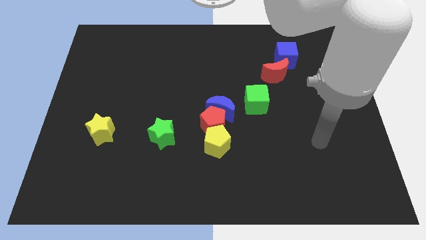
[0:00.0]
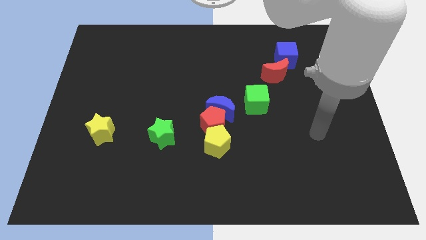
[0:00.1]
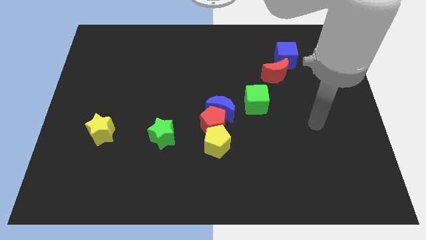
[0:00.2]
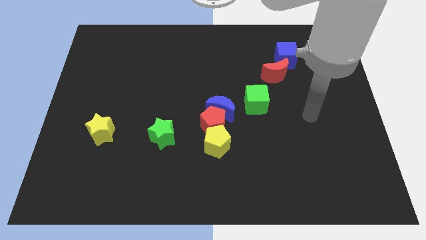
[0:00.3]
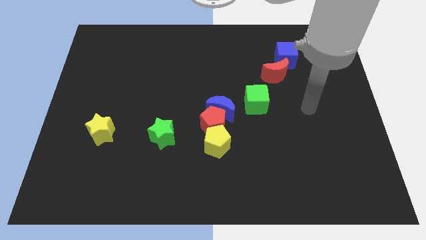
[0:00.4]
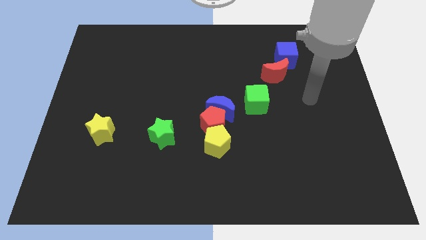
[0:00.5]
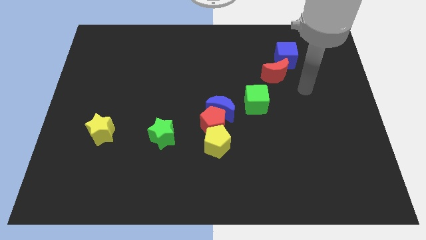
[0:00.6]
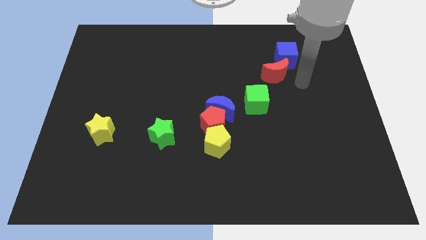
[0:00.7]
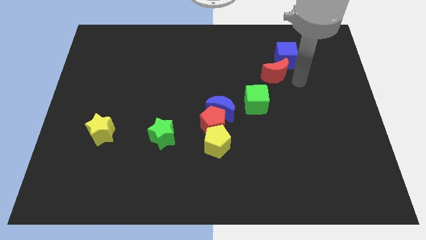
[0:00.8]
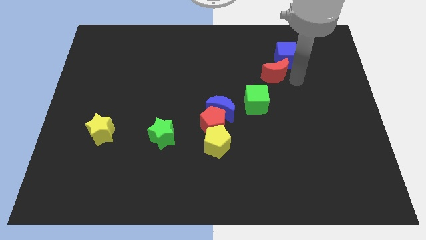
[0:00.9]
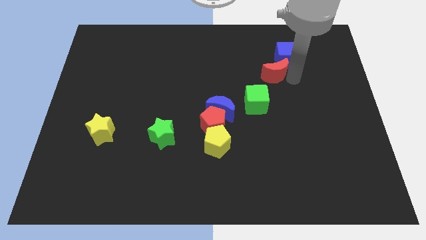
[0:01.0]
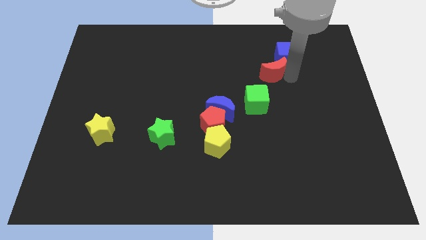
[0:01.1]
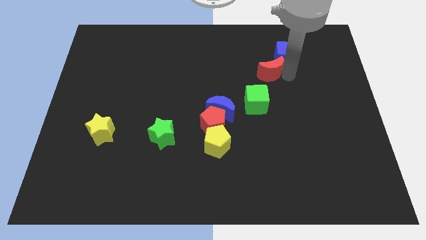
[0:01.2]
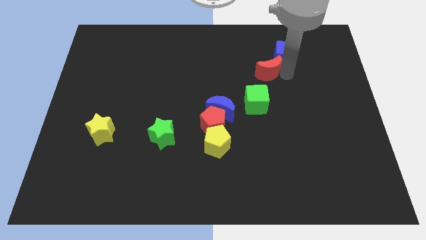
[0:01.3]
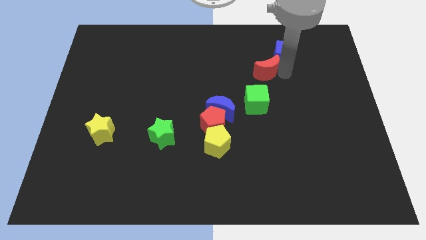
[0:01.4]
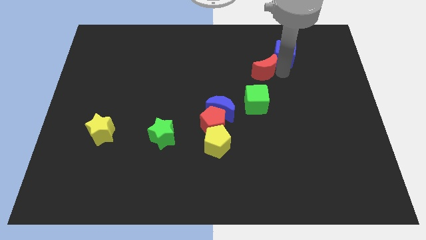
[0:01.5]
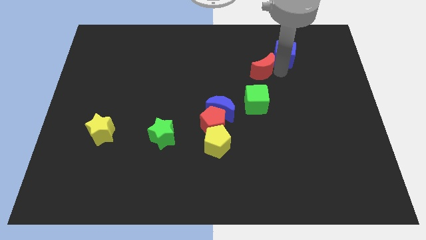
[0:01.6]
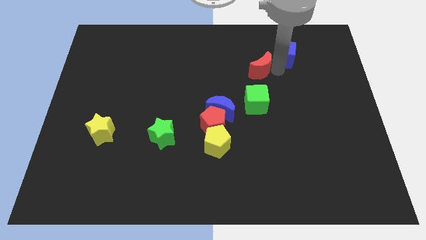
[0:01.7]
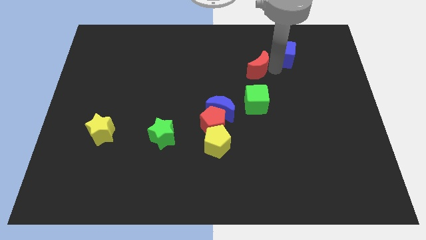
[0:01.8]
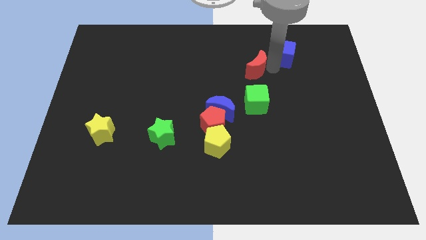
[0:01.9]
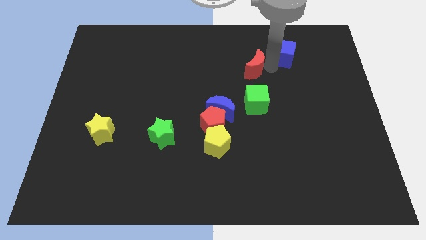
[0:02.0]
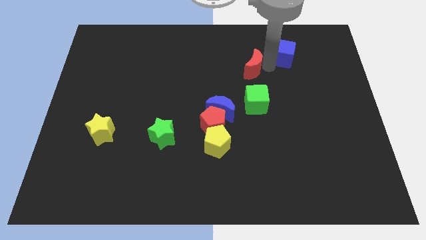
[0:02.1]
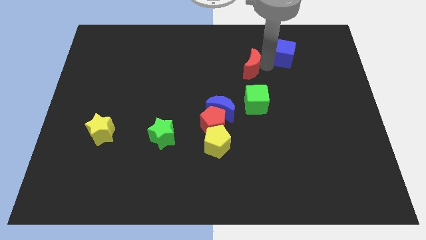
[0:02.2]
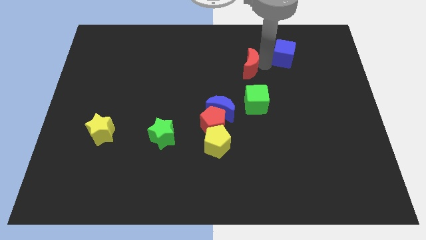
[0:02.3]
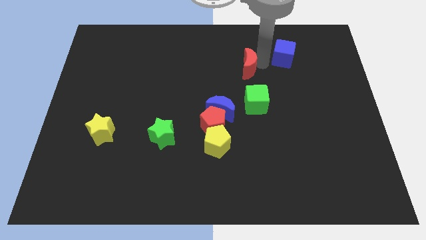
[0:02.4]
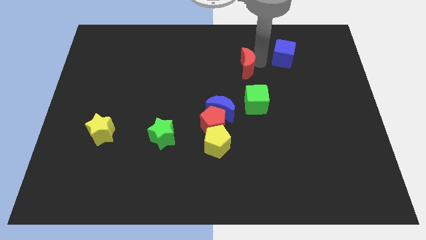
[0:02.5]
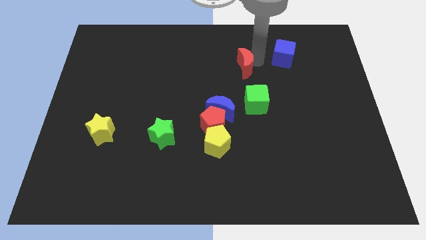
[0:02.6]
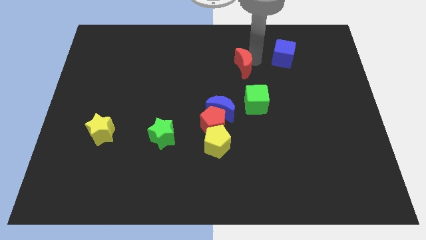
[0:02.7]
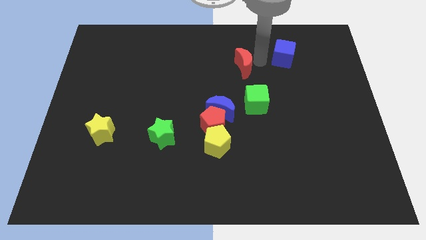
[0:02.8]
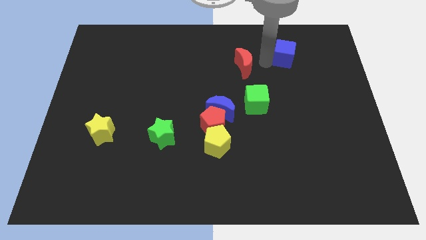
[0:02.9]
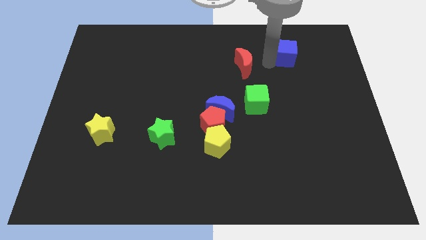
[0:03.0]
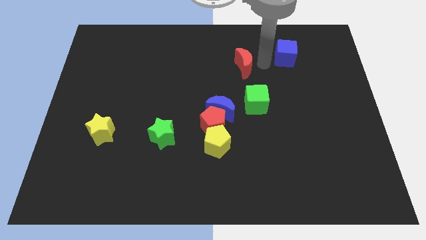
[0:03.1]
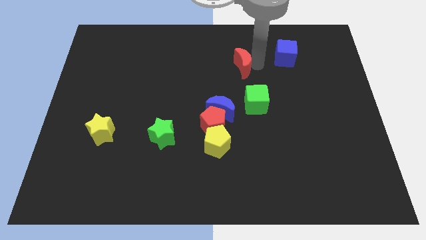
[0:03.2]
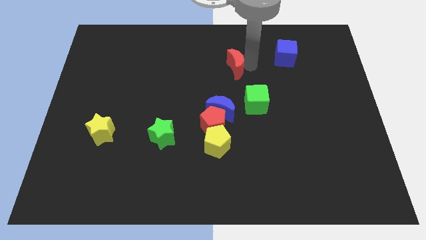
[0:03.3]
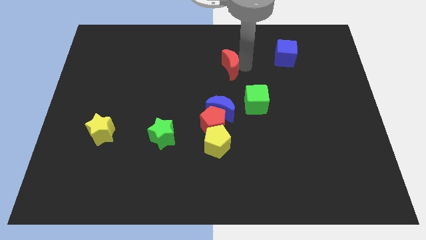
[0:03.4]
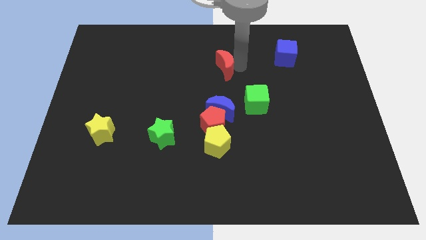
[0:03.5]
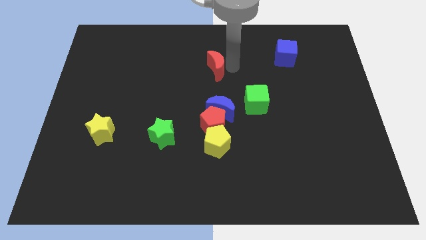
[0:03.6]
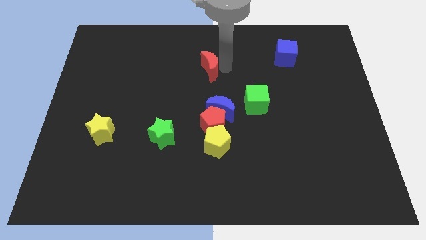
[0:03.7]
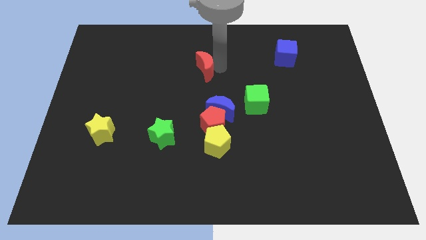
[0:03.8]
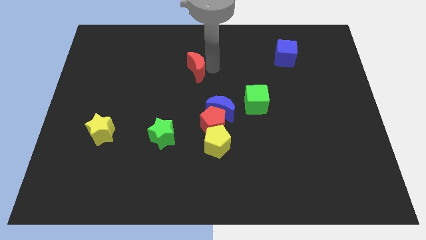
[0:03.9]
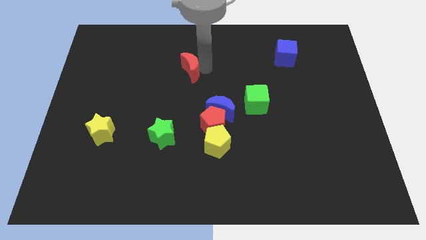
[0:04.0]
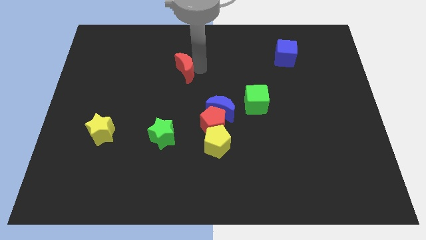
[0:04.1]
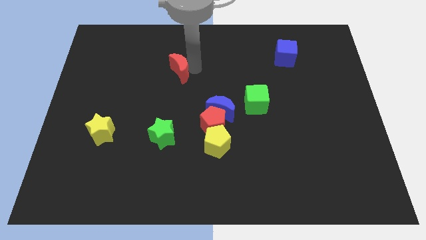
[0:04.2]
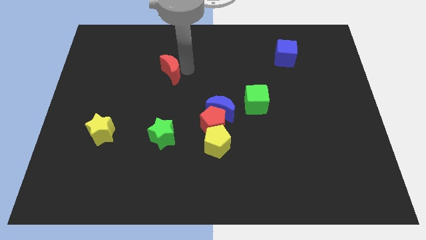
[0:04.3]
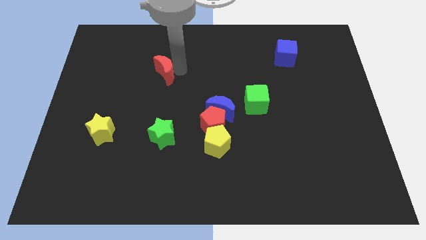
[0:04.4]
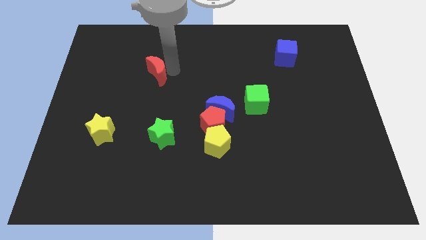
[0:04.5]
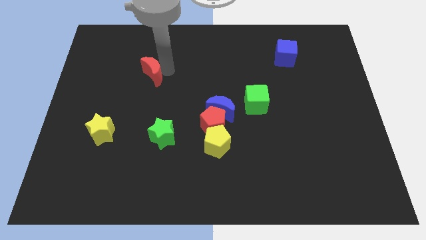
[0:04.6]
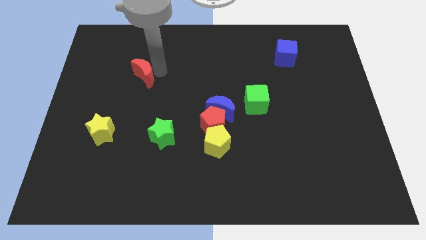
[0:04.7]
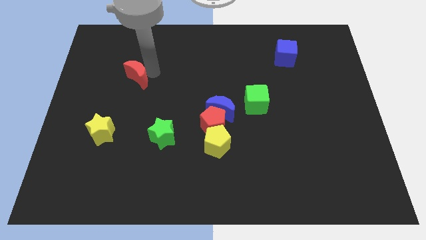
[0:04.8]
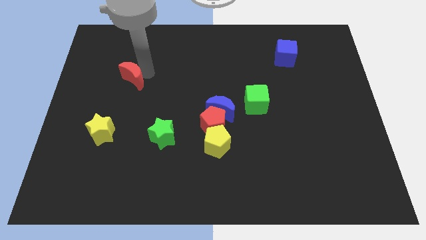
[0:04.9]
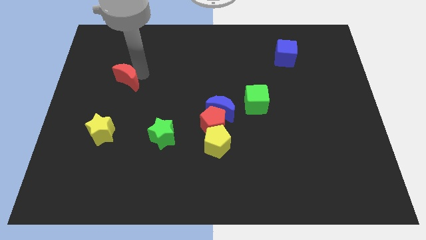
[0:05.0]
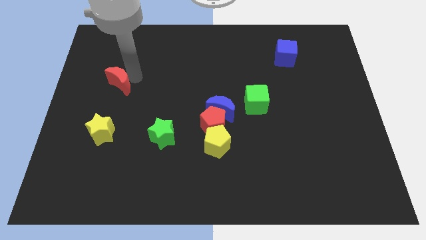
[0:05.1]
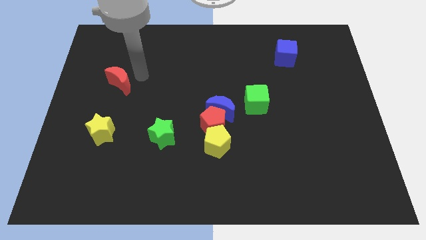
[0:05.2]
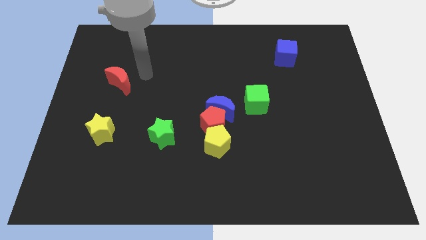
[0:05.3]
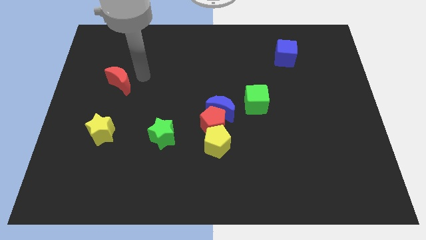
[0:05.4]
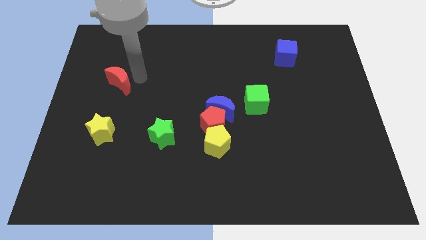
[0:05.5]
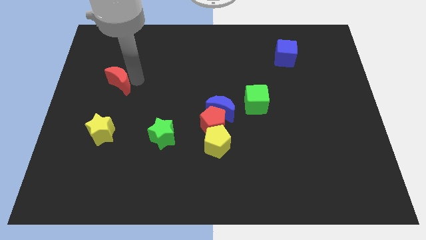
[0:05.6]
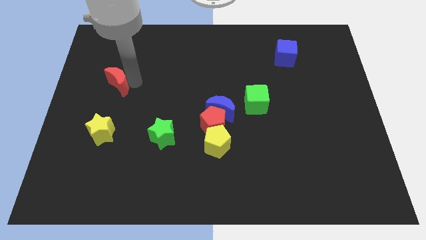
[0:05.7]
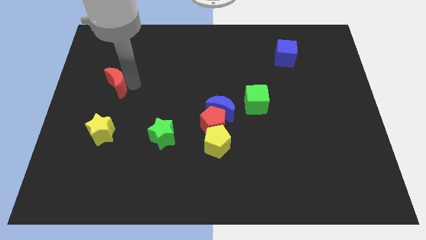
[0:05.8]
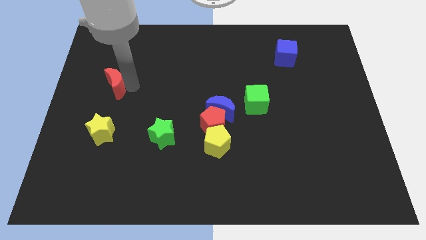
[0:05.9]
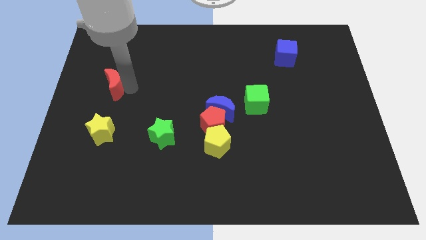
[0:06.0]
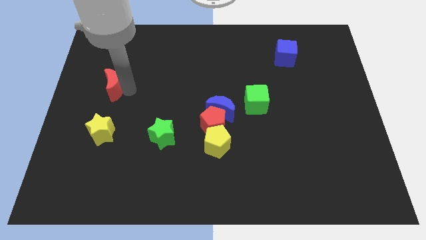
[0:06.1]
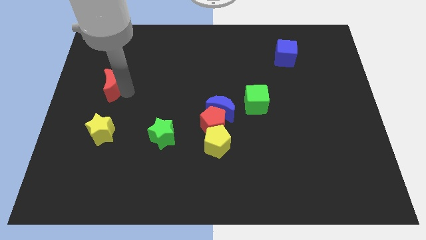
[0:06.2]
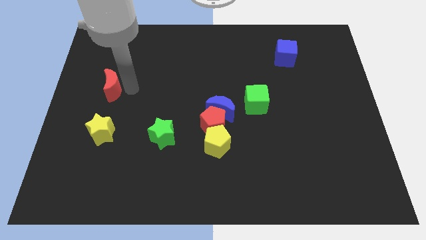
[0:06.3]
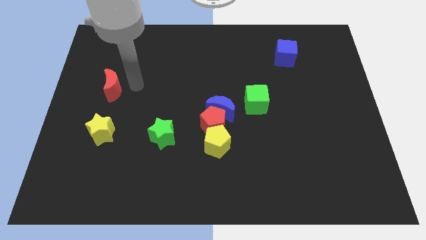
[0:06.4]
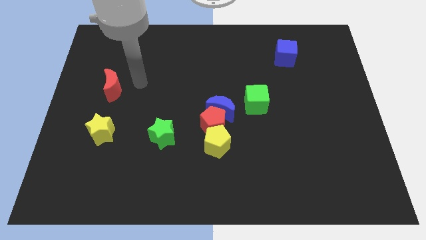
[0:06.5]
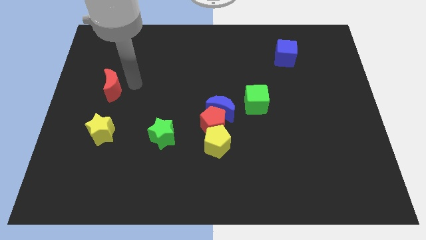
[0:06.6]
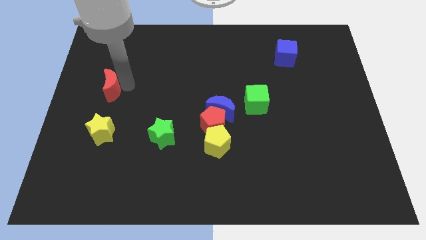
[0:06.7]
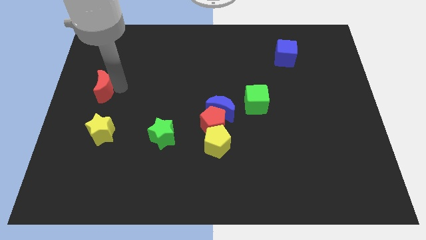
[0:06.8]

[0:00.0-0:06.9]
put the red moon to the left side
